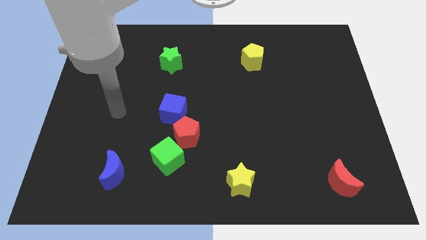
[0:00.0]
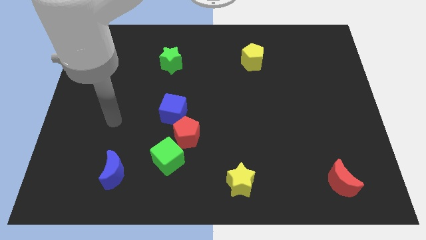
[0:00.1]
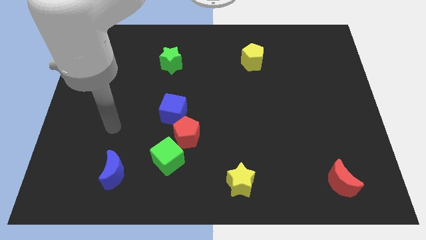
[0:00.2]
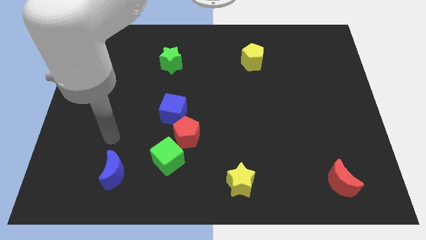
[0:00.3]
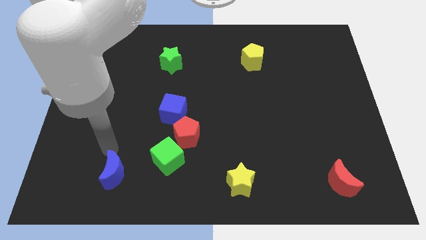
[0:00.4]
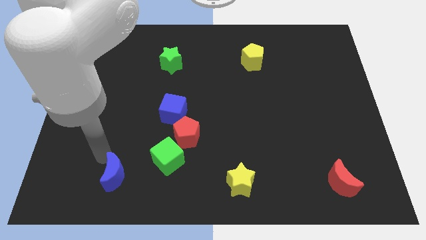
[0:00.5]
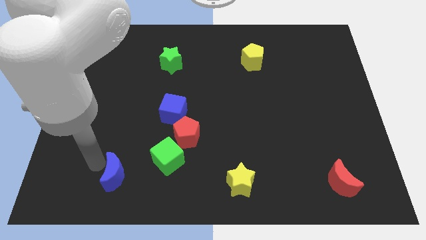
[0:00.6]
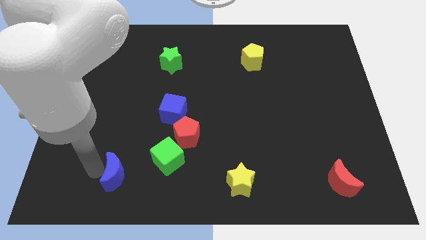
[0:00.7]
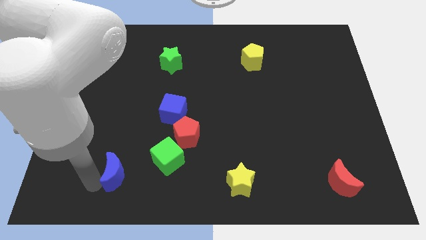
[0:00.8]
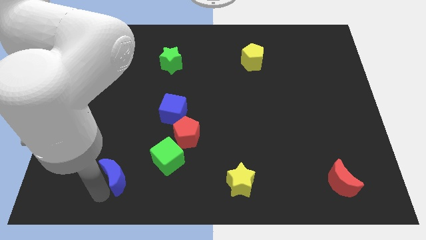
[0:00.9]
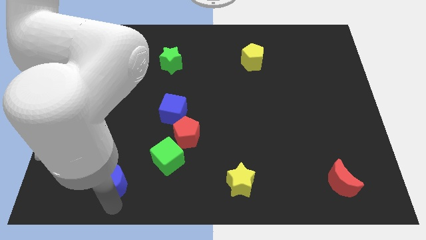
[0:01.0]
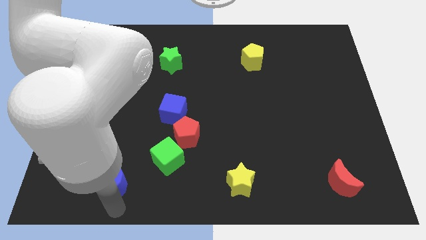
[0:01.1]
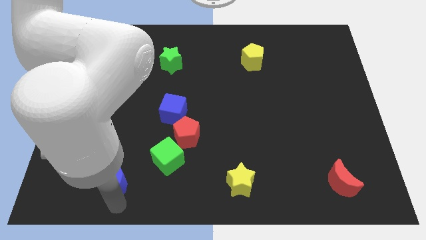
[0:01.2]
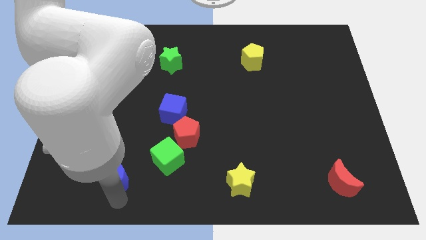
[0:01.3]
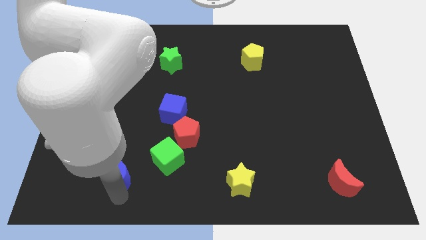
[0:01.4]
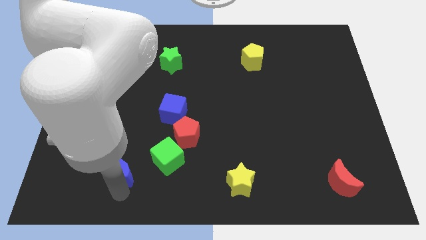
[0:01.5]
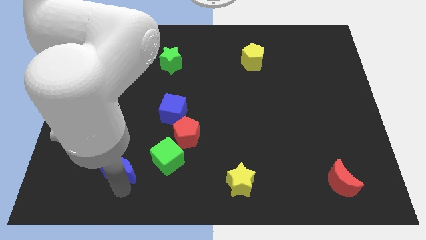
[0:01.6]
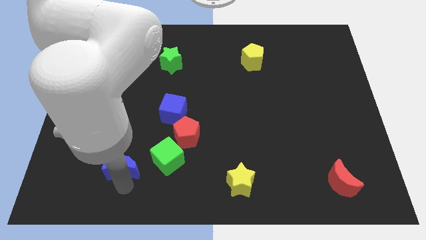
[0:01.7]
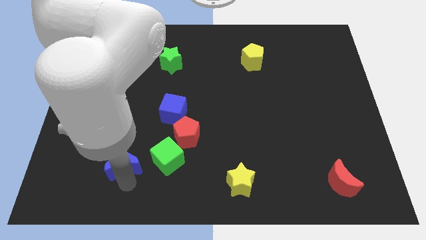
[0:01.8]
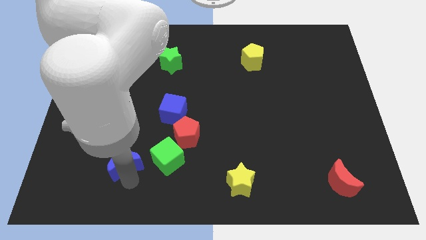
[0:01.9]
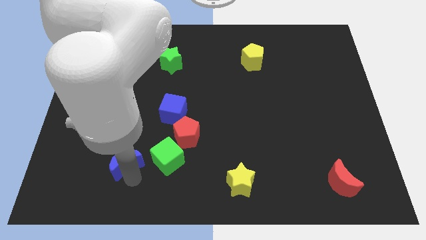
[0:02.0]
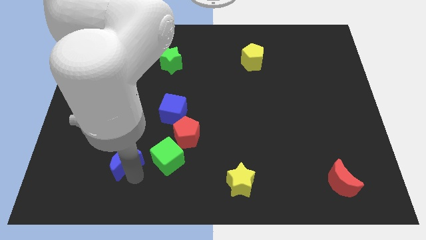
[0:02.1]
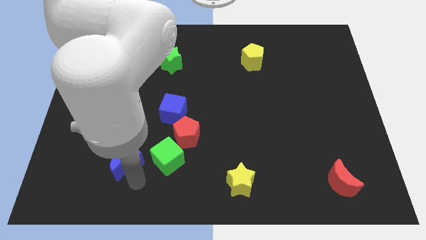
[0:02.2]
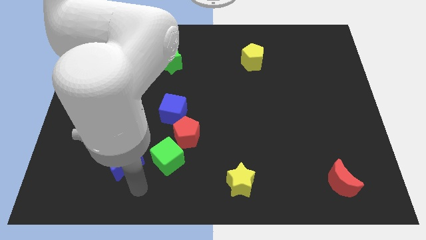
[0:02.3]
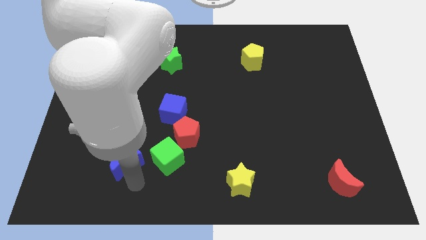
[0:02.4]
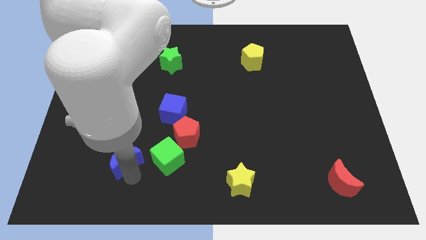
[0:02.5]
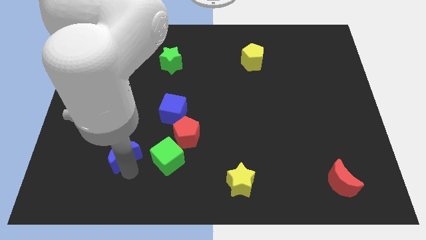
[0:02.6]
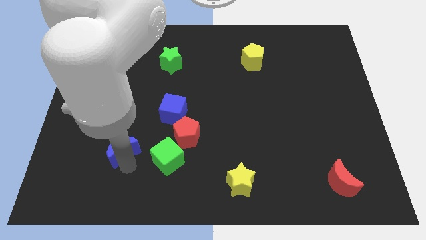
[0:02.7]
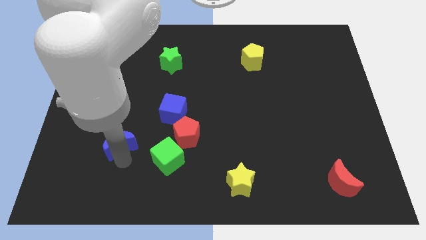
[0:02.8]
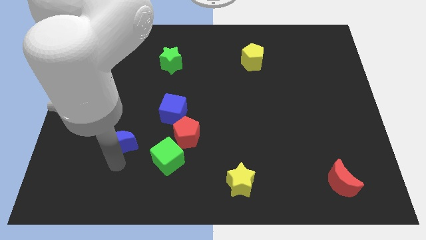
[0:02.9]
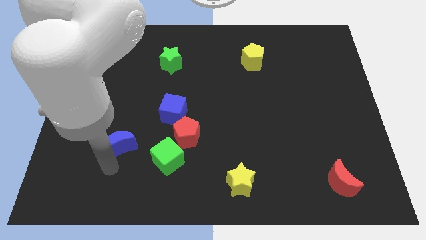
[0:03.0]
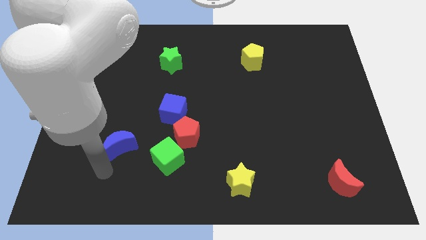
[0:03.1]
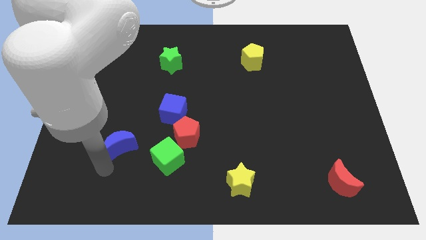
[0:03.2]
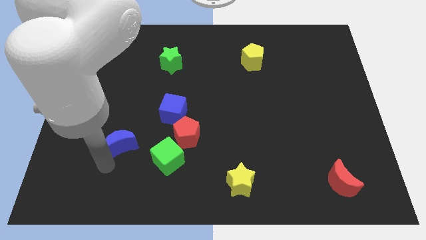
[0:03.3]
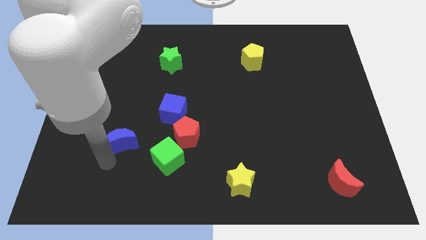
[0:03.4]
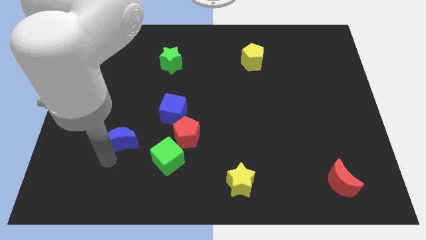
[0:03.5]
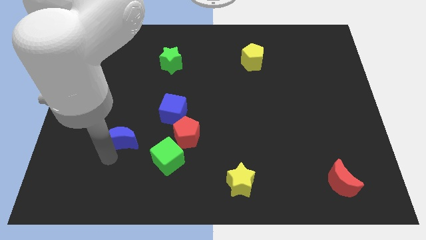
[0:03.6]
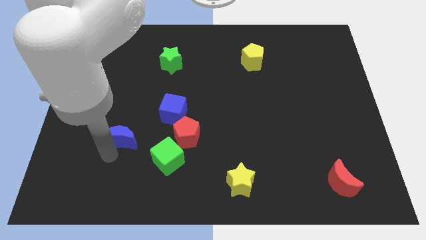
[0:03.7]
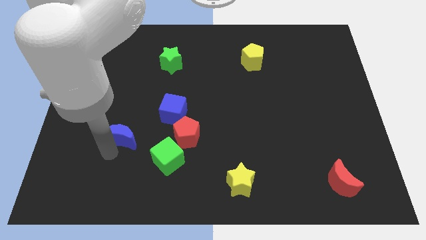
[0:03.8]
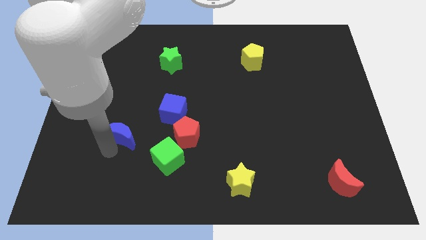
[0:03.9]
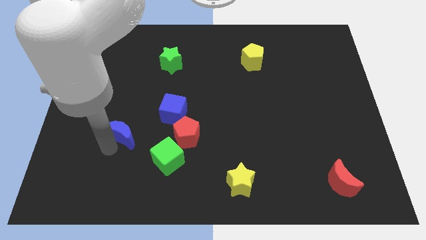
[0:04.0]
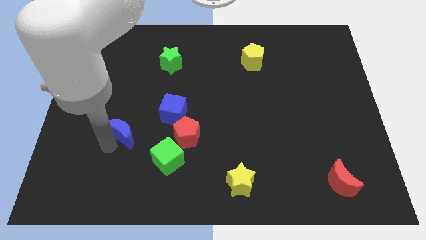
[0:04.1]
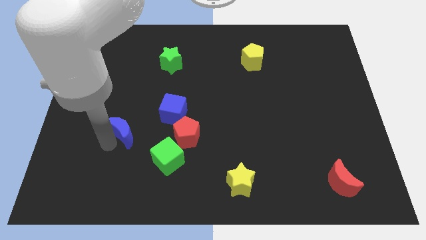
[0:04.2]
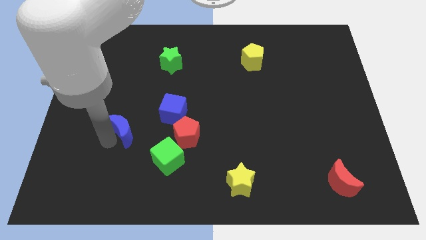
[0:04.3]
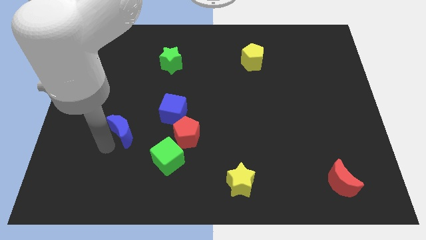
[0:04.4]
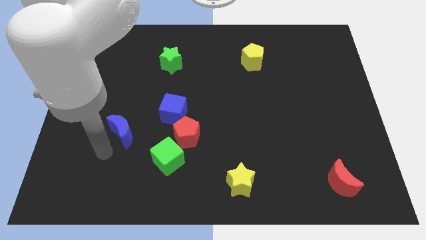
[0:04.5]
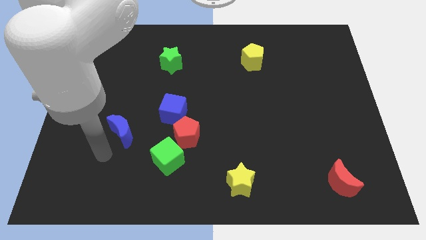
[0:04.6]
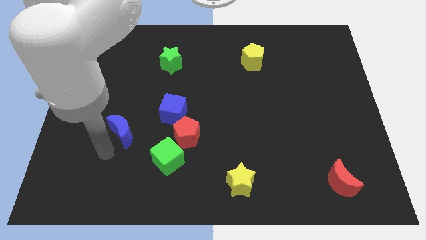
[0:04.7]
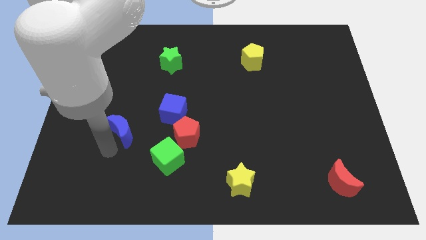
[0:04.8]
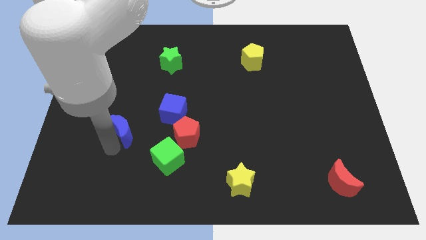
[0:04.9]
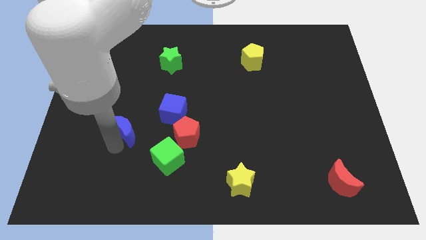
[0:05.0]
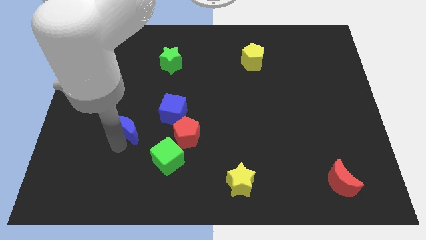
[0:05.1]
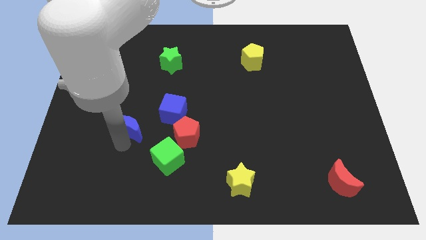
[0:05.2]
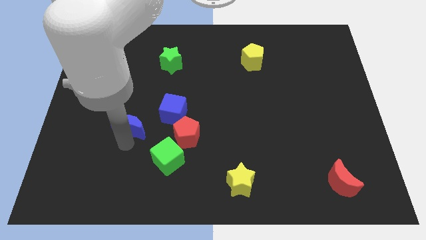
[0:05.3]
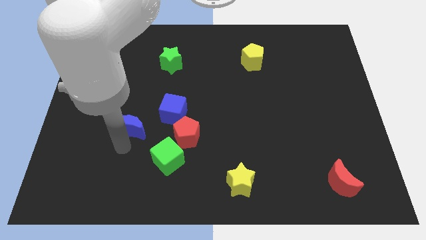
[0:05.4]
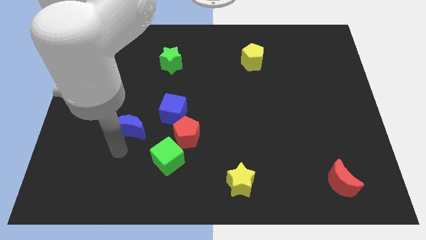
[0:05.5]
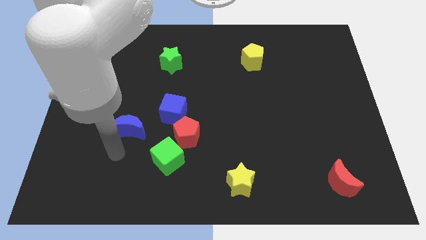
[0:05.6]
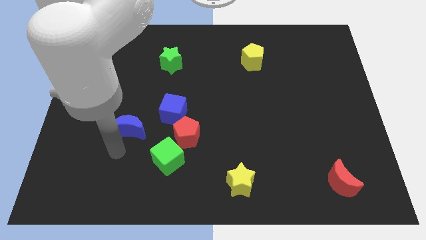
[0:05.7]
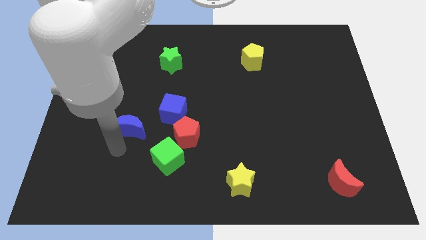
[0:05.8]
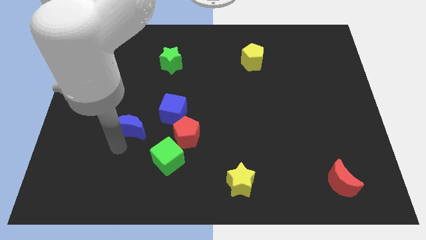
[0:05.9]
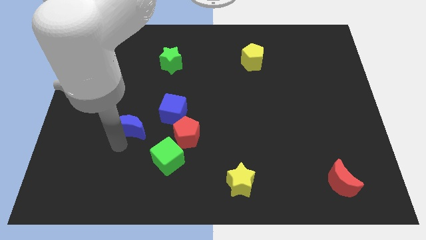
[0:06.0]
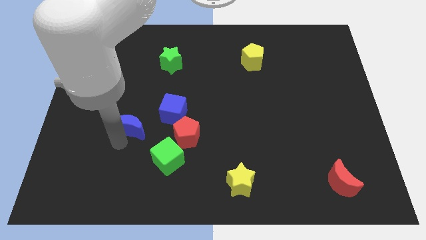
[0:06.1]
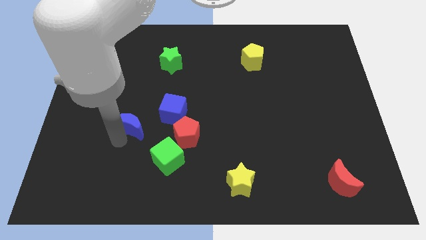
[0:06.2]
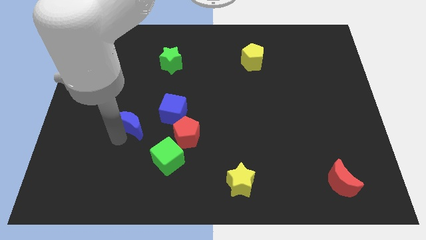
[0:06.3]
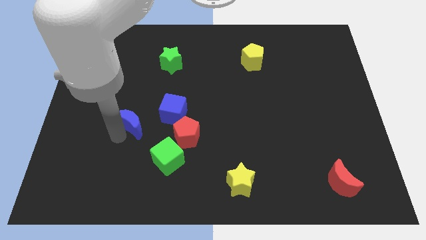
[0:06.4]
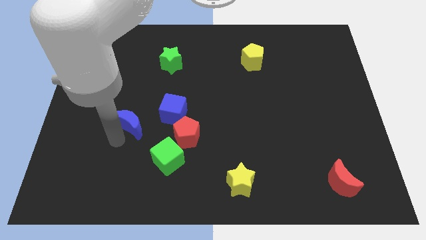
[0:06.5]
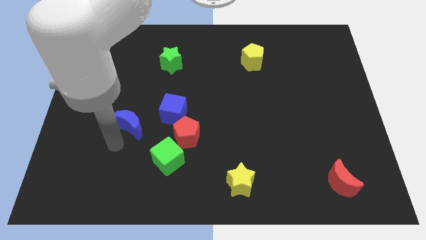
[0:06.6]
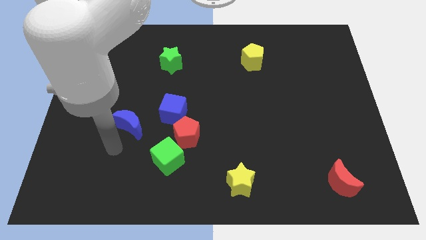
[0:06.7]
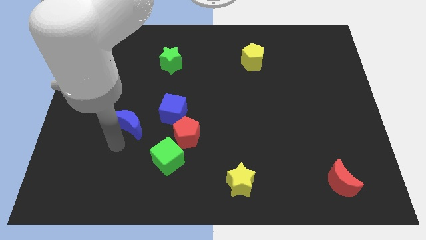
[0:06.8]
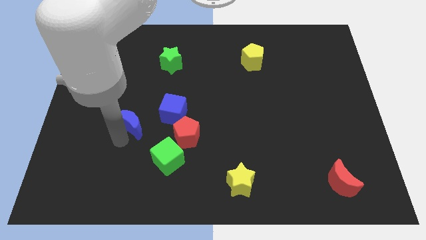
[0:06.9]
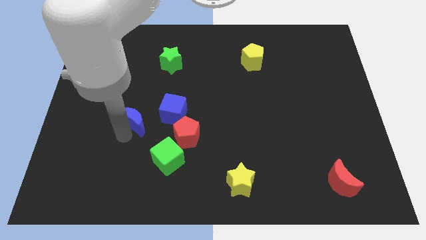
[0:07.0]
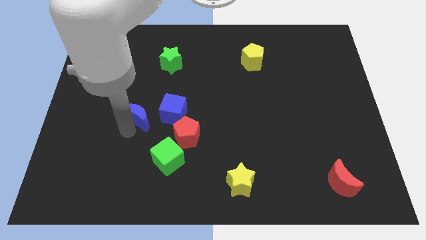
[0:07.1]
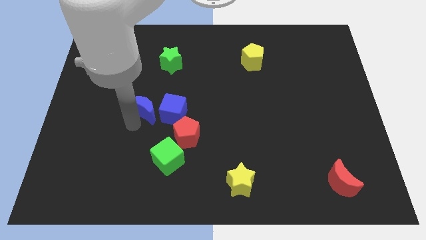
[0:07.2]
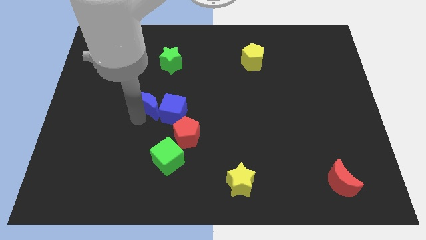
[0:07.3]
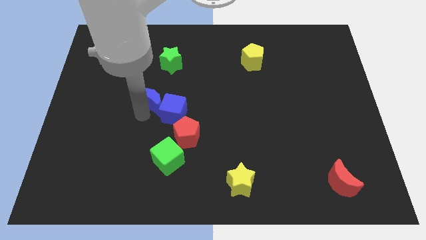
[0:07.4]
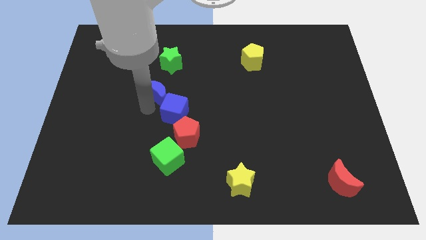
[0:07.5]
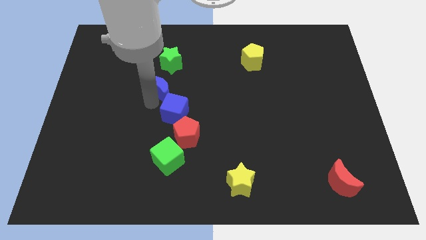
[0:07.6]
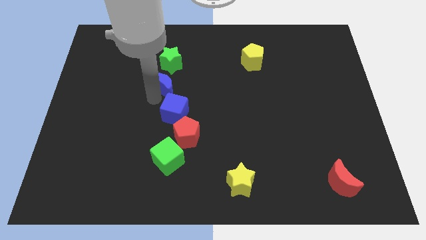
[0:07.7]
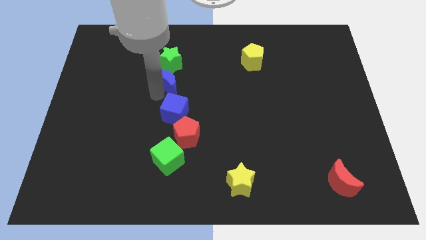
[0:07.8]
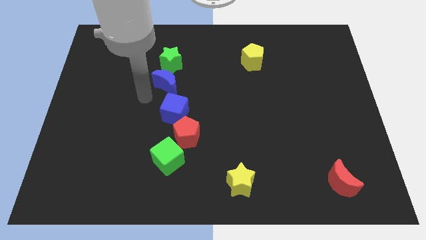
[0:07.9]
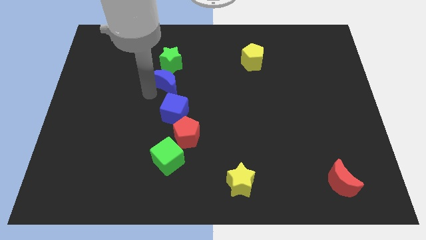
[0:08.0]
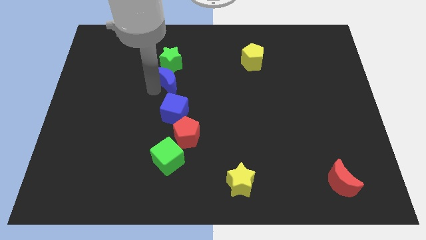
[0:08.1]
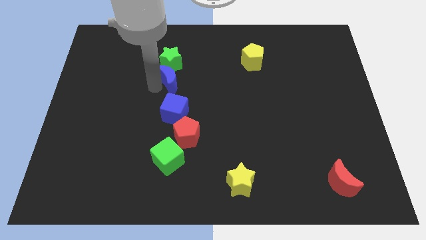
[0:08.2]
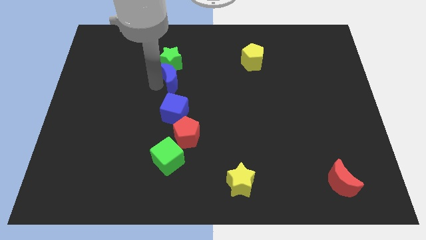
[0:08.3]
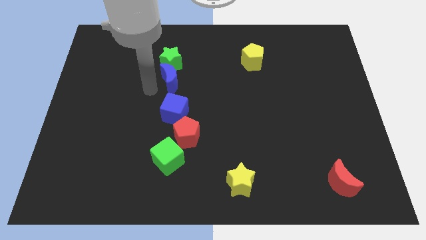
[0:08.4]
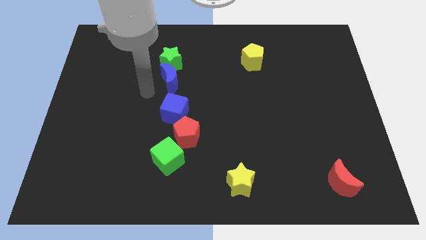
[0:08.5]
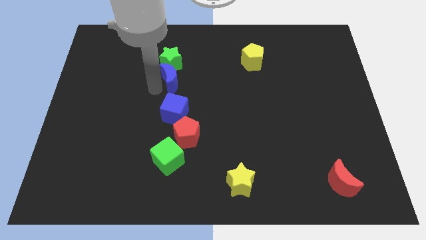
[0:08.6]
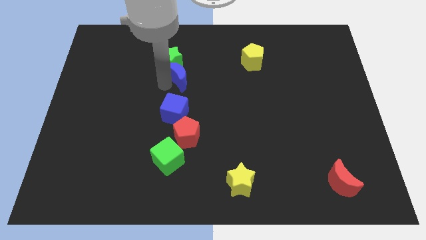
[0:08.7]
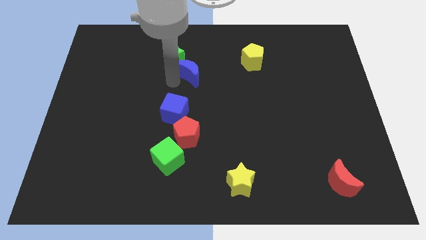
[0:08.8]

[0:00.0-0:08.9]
put the blue moon to the right side of the green star
